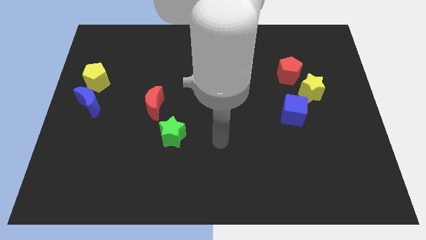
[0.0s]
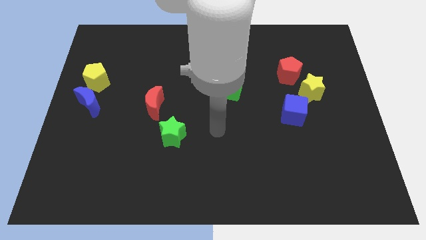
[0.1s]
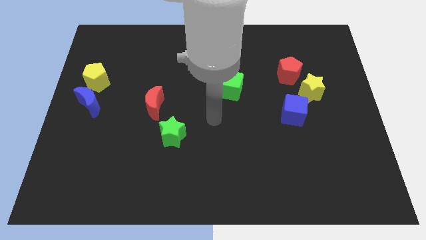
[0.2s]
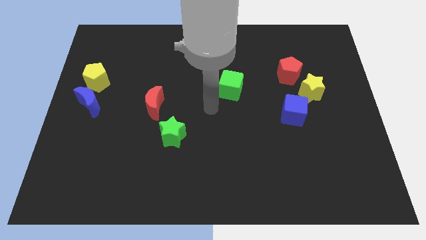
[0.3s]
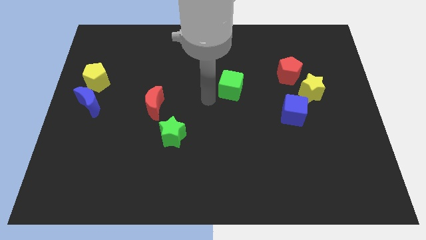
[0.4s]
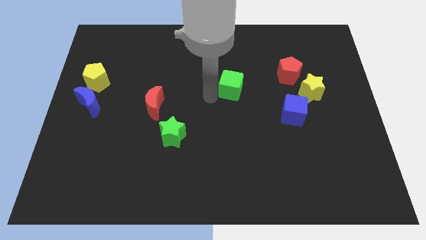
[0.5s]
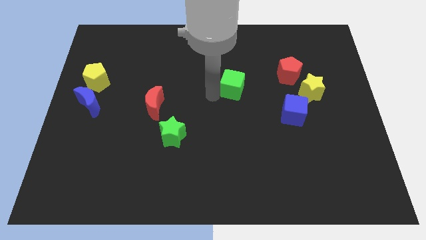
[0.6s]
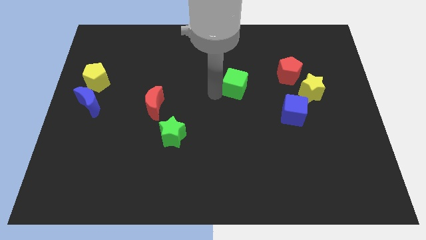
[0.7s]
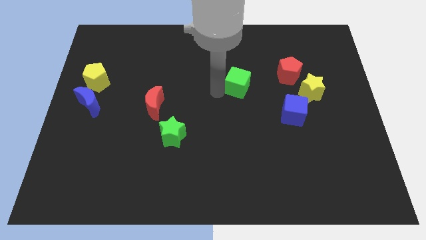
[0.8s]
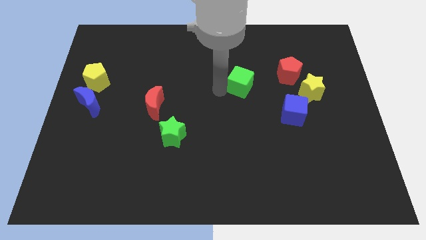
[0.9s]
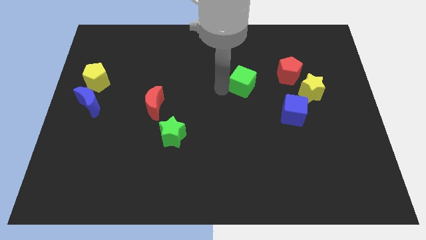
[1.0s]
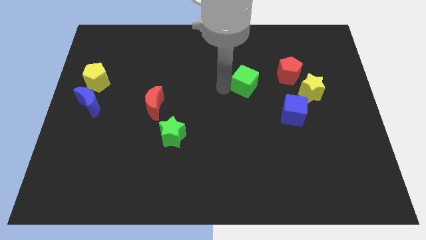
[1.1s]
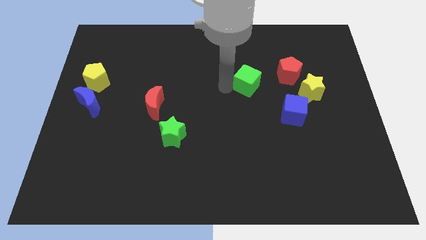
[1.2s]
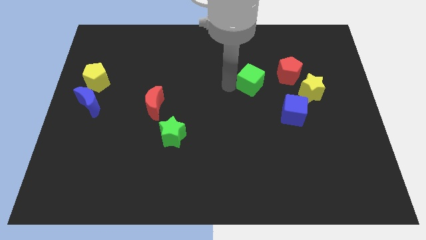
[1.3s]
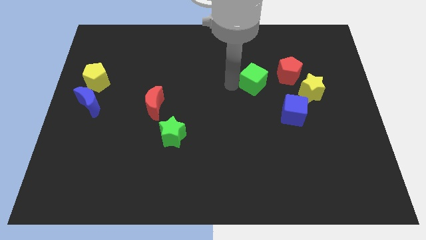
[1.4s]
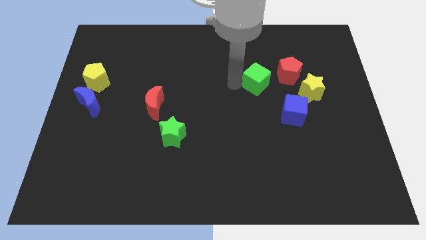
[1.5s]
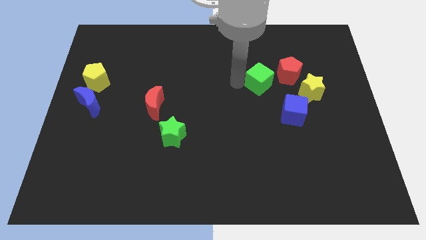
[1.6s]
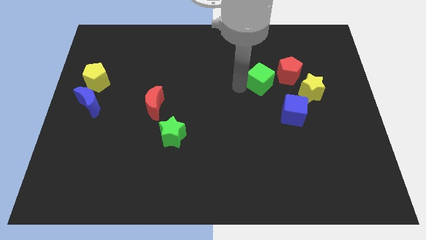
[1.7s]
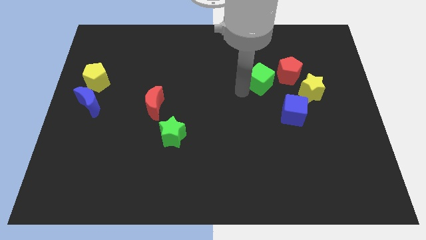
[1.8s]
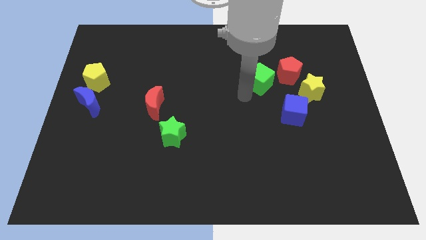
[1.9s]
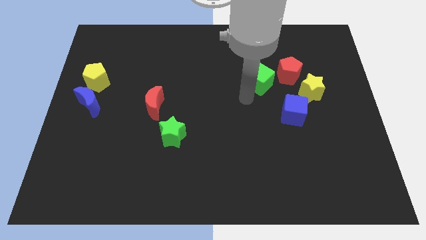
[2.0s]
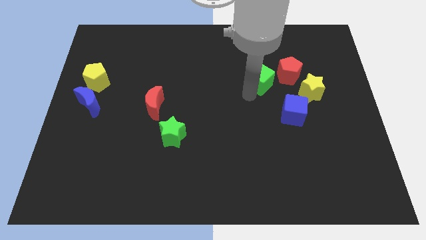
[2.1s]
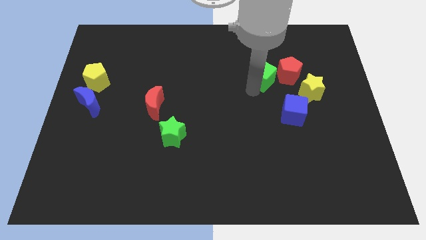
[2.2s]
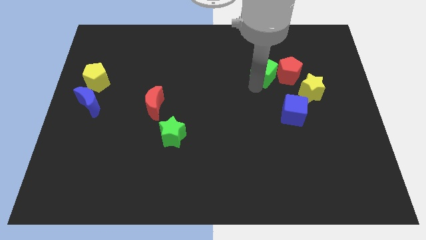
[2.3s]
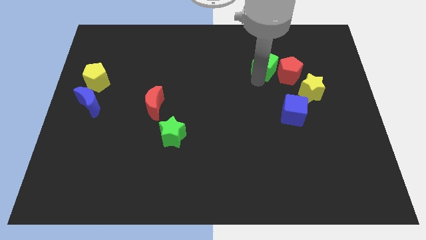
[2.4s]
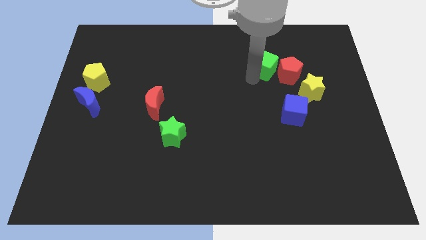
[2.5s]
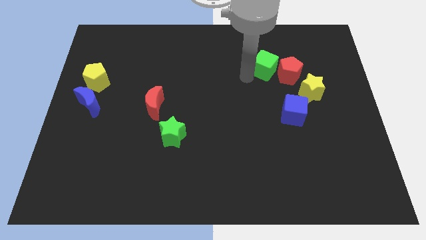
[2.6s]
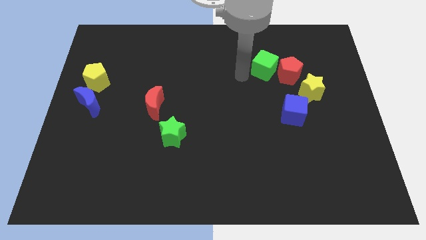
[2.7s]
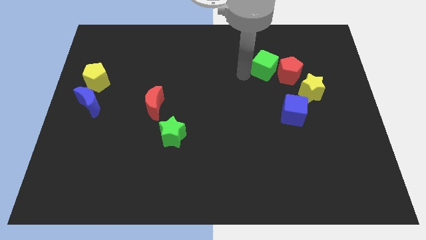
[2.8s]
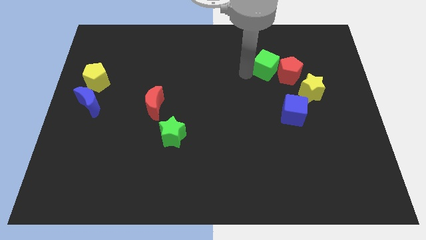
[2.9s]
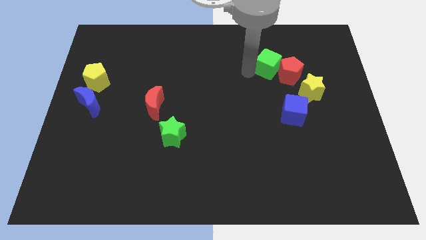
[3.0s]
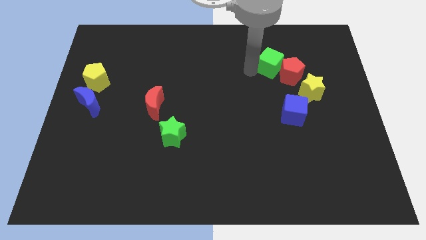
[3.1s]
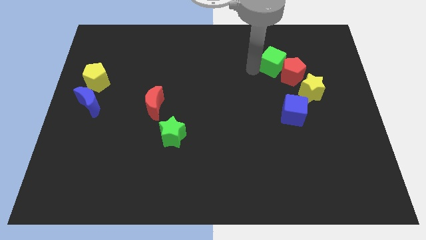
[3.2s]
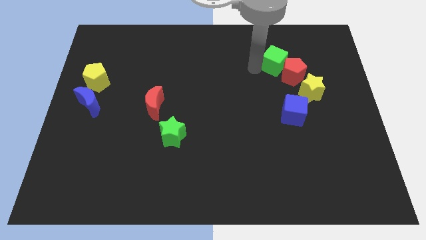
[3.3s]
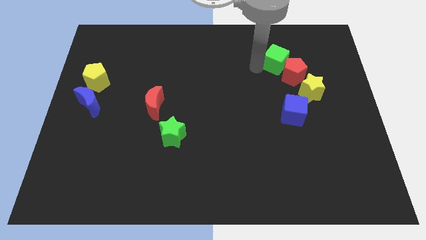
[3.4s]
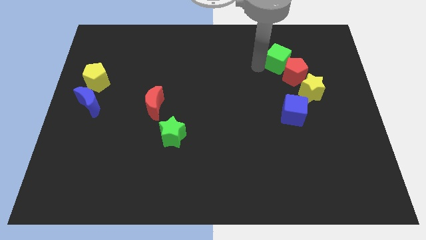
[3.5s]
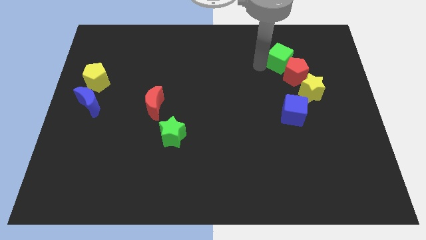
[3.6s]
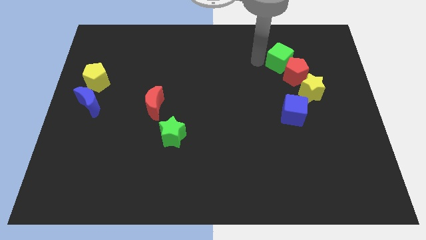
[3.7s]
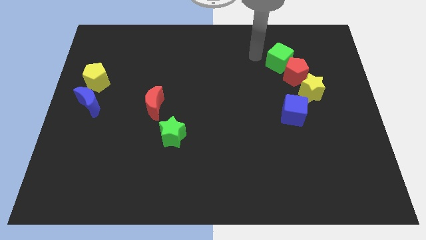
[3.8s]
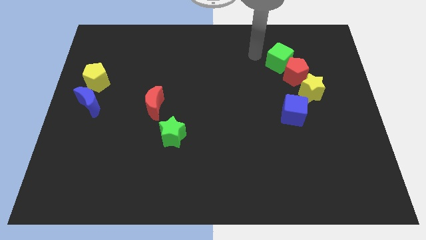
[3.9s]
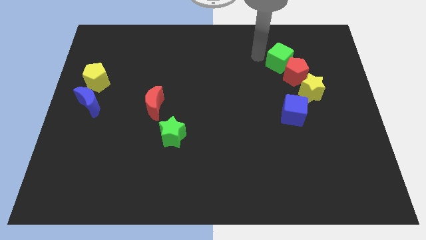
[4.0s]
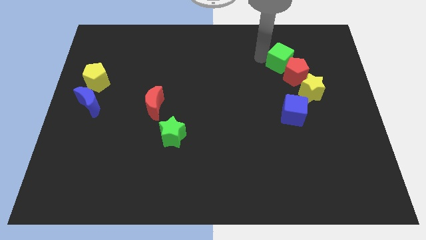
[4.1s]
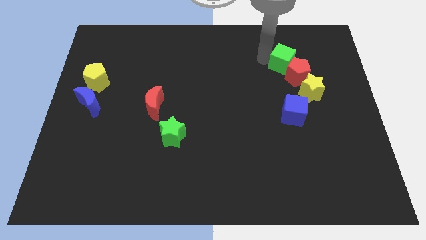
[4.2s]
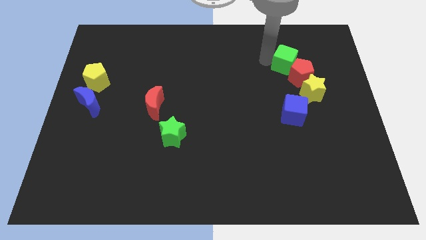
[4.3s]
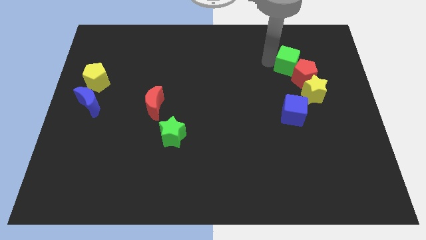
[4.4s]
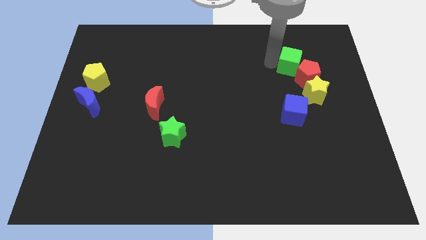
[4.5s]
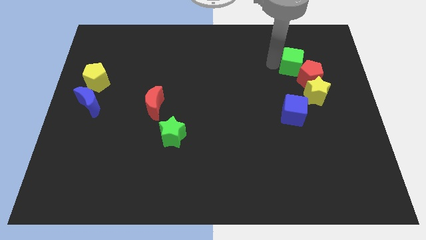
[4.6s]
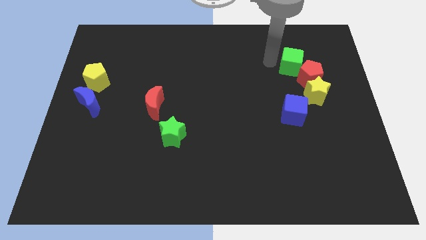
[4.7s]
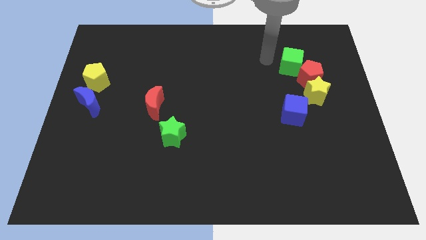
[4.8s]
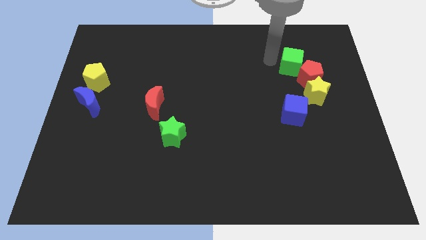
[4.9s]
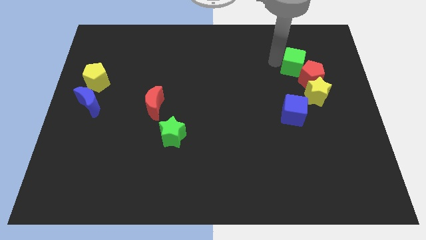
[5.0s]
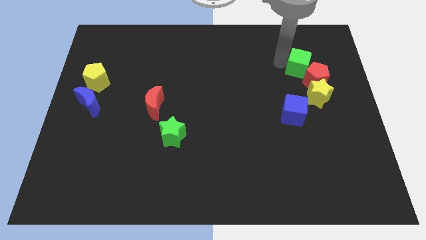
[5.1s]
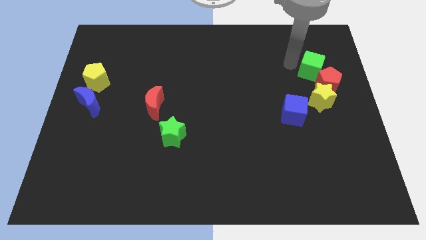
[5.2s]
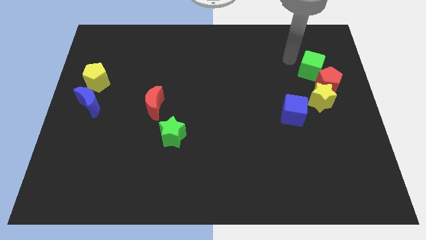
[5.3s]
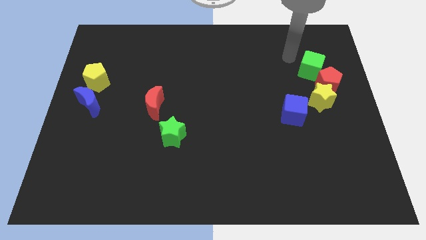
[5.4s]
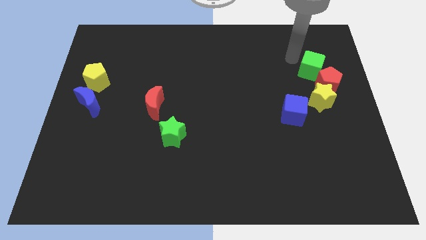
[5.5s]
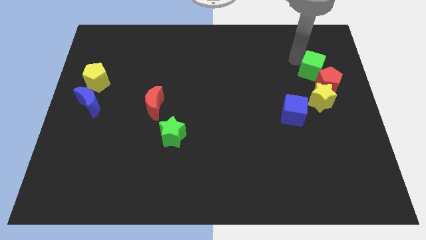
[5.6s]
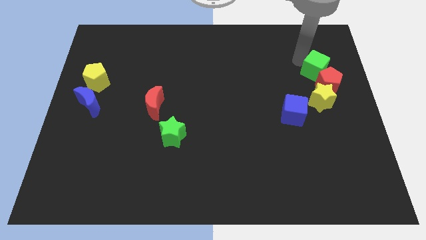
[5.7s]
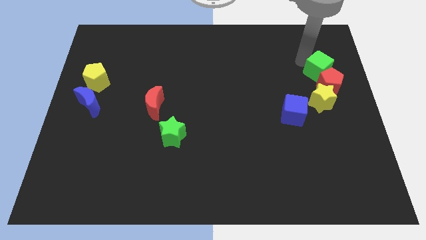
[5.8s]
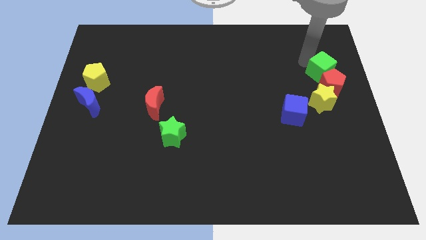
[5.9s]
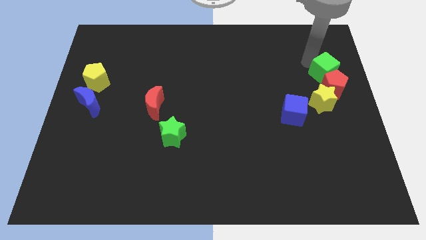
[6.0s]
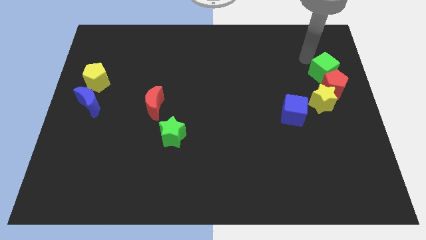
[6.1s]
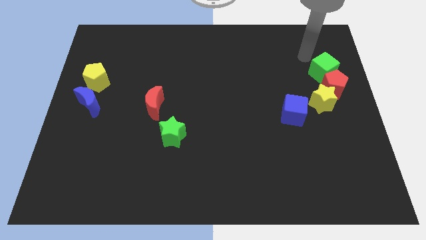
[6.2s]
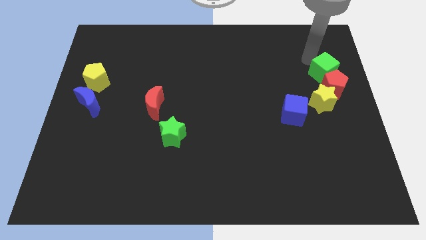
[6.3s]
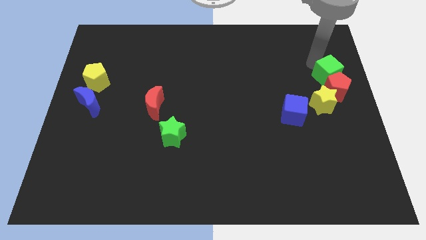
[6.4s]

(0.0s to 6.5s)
push the green cube to the right side
